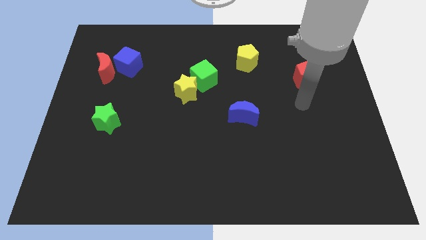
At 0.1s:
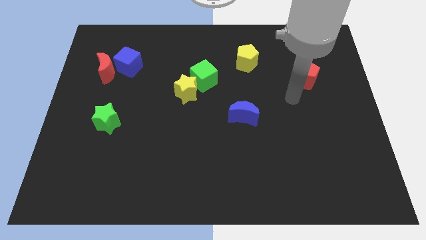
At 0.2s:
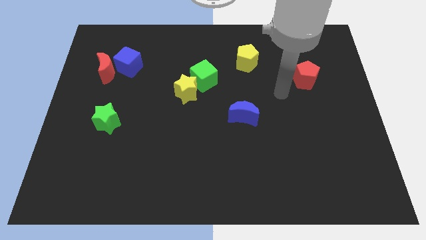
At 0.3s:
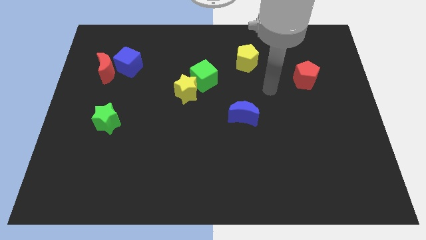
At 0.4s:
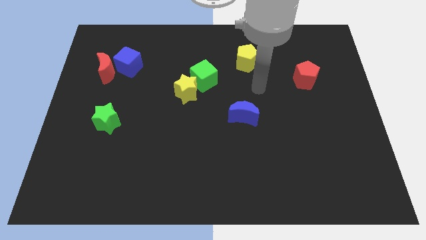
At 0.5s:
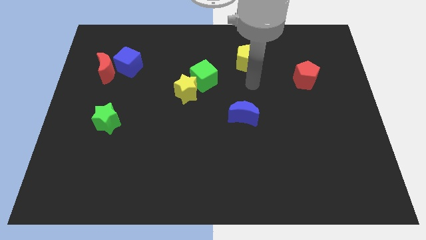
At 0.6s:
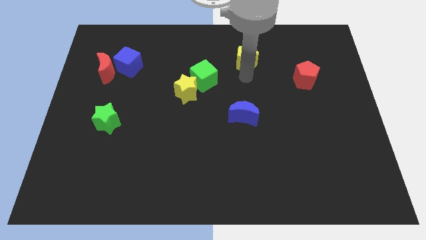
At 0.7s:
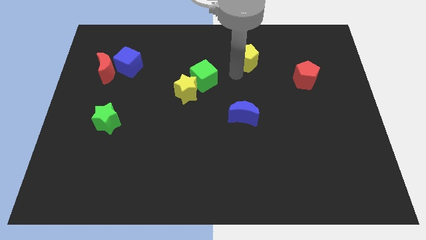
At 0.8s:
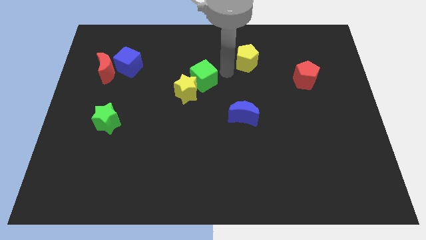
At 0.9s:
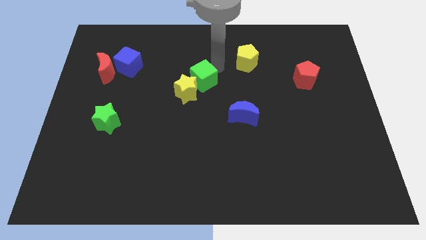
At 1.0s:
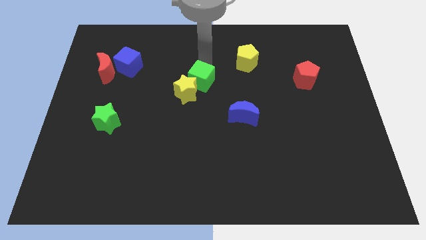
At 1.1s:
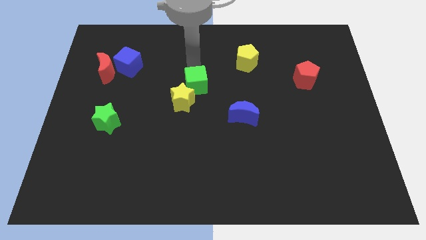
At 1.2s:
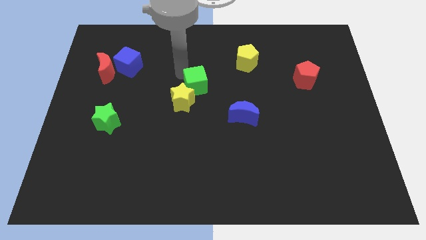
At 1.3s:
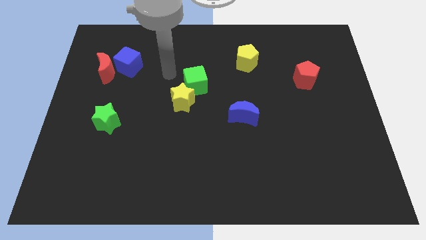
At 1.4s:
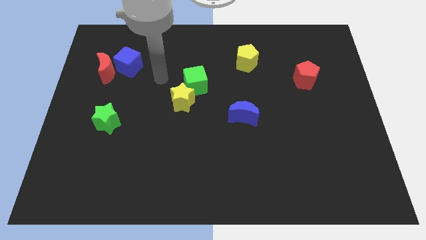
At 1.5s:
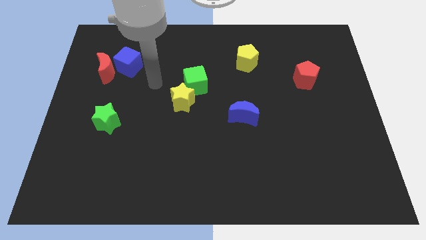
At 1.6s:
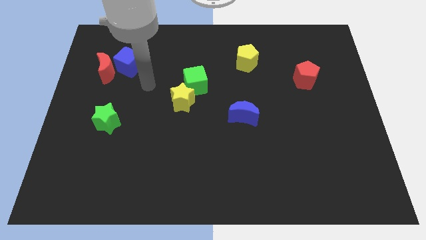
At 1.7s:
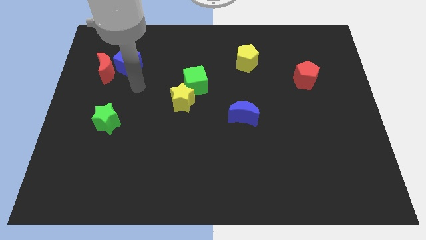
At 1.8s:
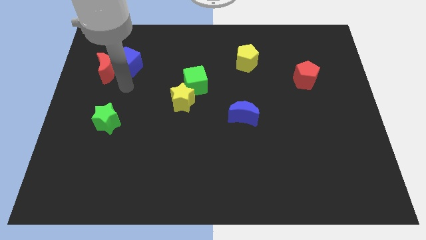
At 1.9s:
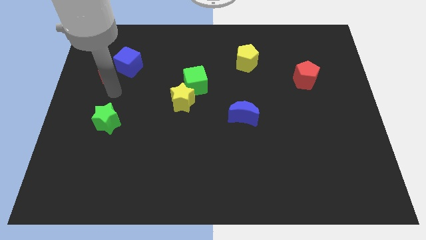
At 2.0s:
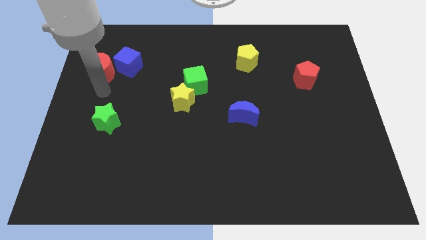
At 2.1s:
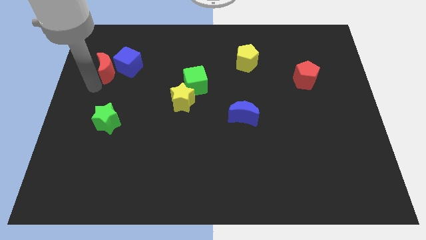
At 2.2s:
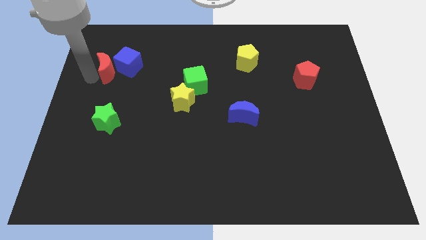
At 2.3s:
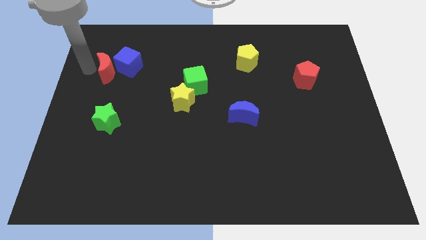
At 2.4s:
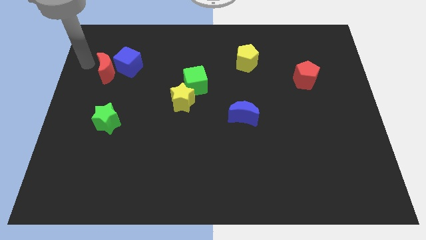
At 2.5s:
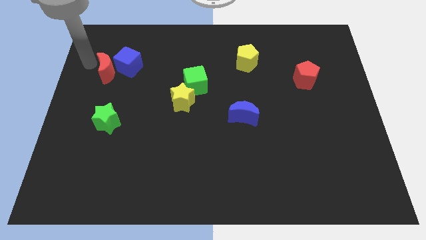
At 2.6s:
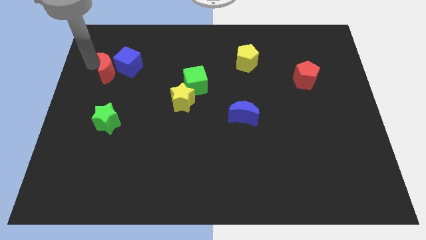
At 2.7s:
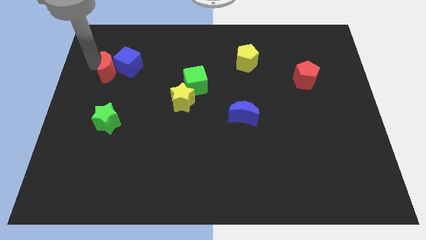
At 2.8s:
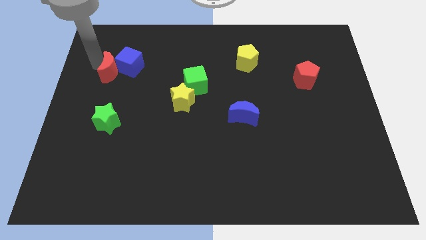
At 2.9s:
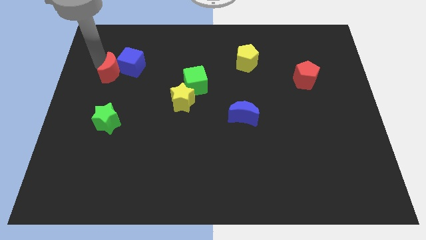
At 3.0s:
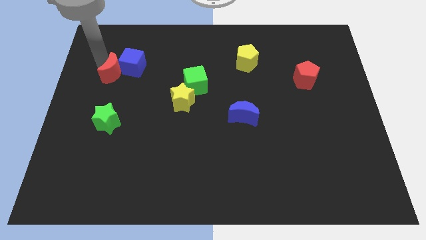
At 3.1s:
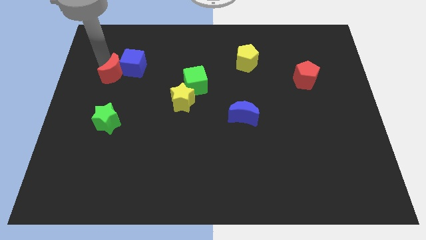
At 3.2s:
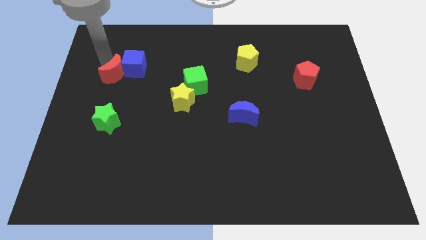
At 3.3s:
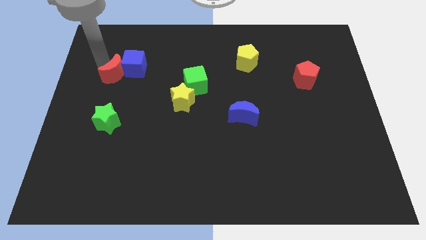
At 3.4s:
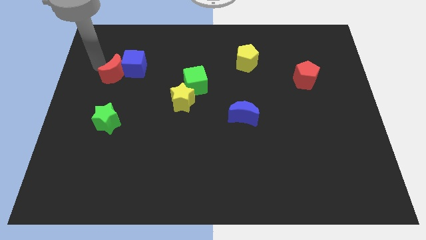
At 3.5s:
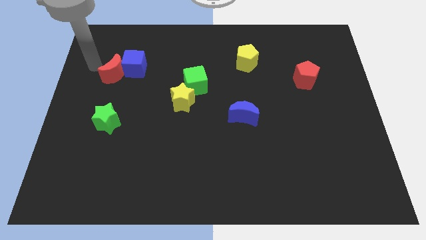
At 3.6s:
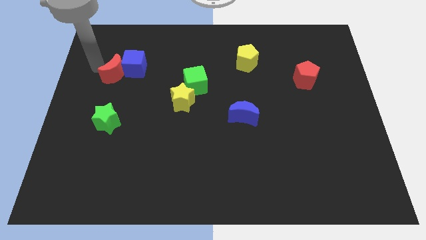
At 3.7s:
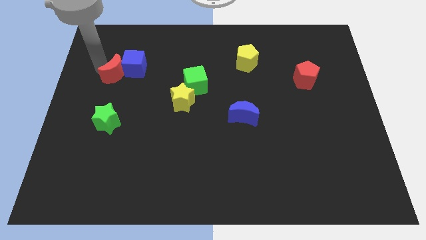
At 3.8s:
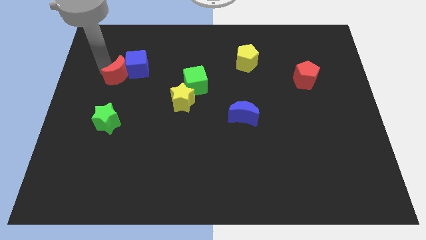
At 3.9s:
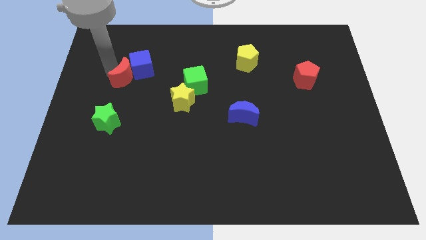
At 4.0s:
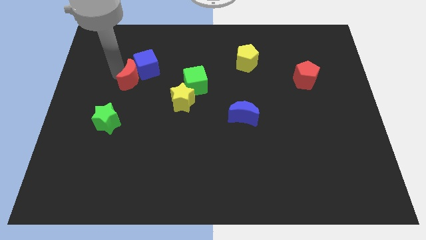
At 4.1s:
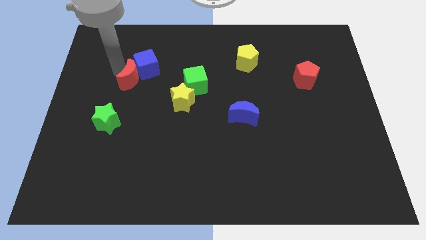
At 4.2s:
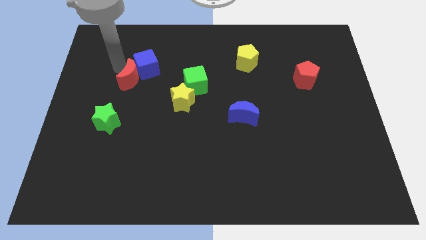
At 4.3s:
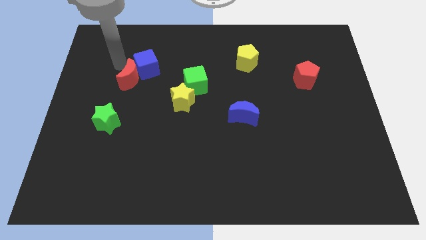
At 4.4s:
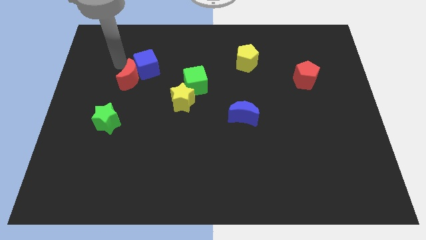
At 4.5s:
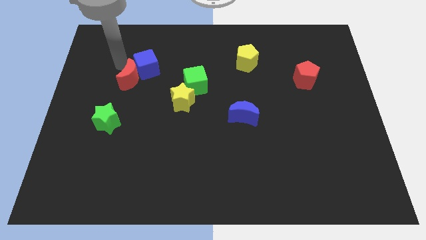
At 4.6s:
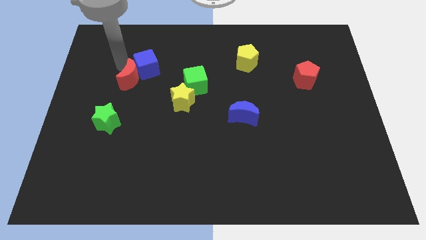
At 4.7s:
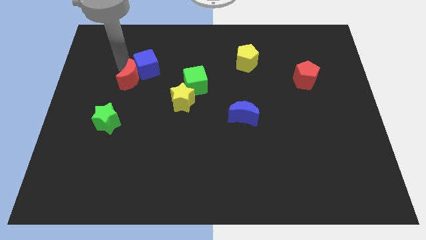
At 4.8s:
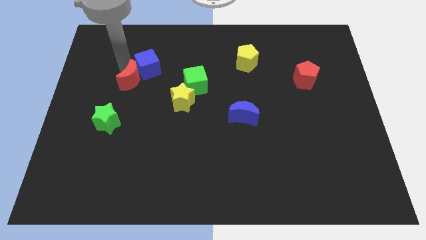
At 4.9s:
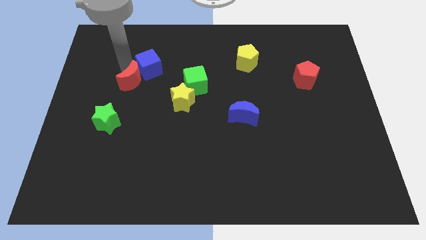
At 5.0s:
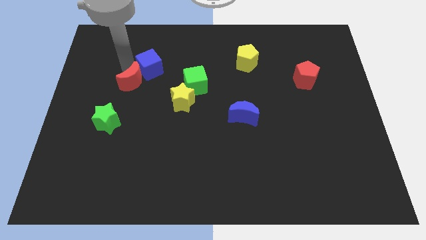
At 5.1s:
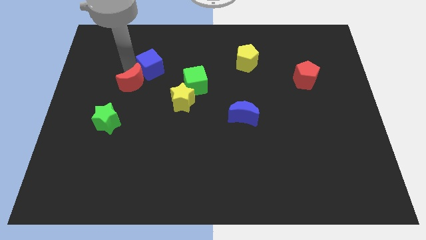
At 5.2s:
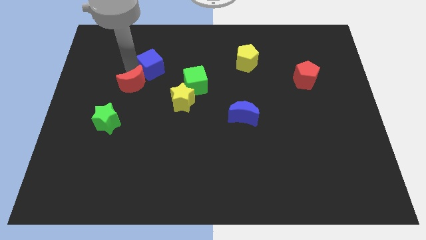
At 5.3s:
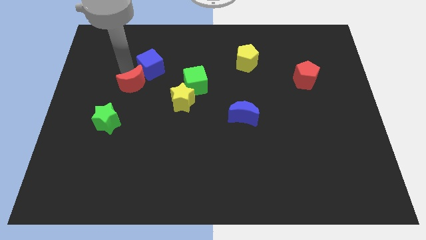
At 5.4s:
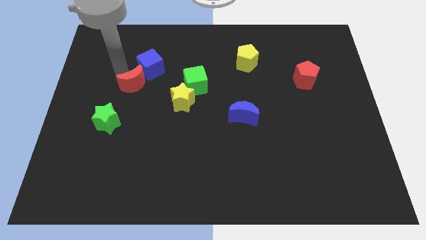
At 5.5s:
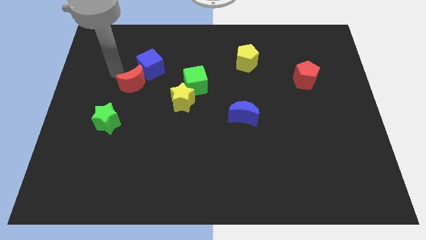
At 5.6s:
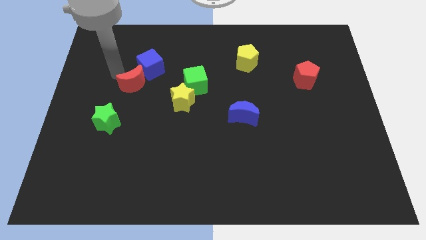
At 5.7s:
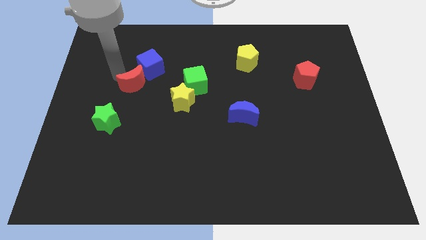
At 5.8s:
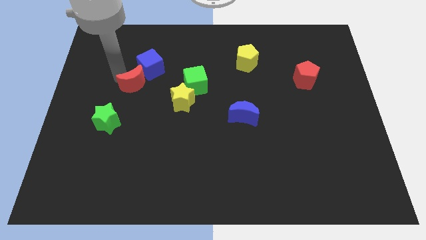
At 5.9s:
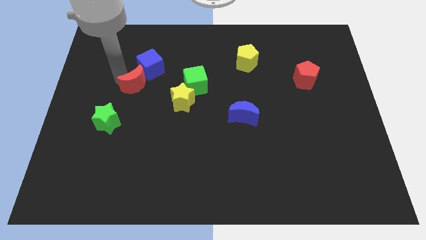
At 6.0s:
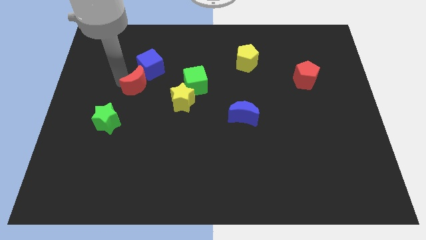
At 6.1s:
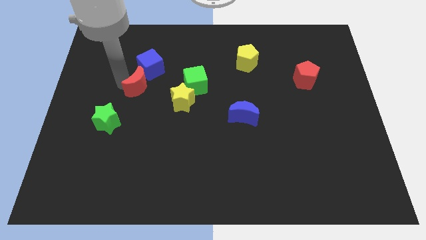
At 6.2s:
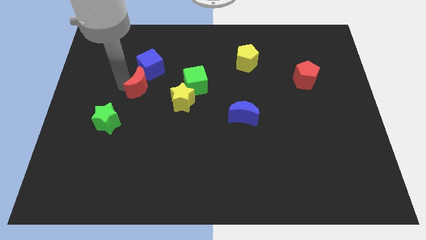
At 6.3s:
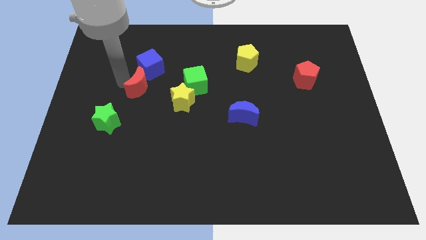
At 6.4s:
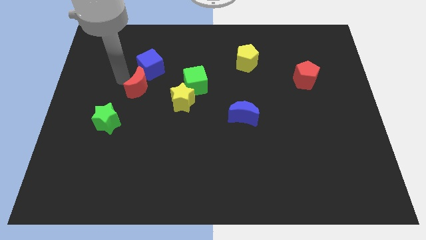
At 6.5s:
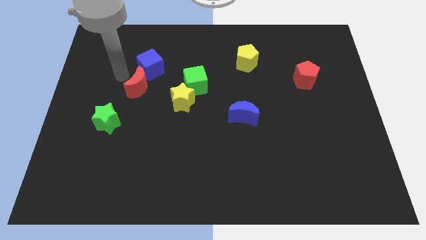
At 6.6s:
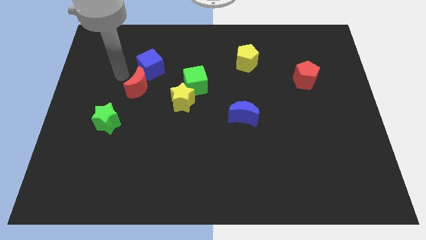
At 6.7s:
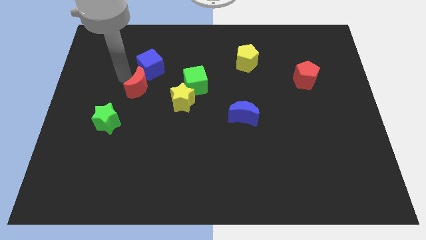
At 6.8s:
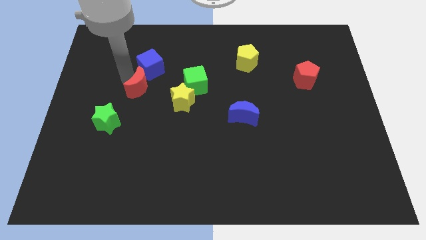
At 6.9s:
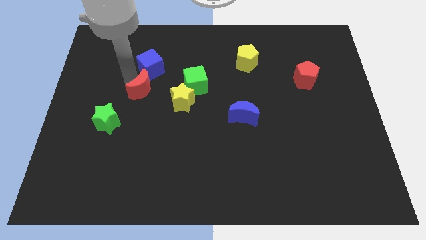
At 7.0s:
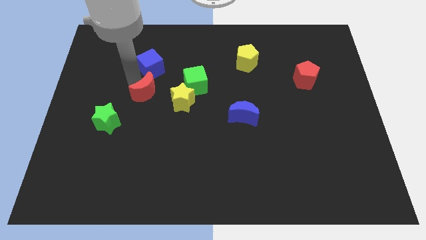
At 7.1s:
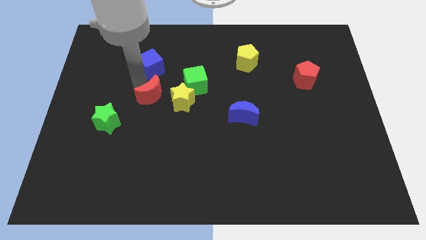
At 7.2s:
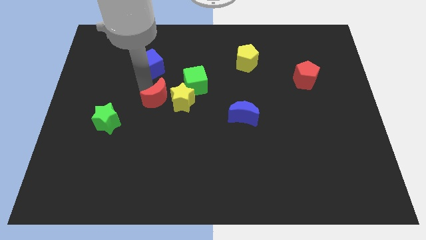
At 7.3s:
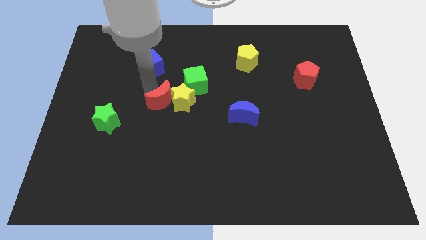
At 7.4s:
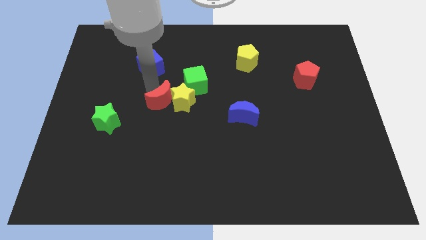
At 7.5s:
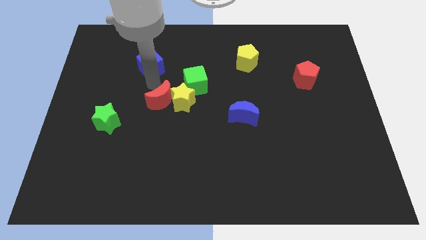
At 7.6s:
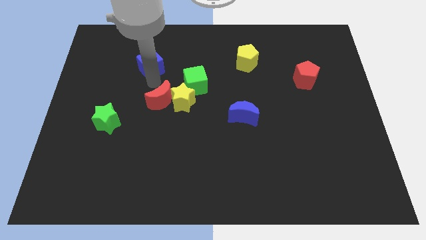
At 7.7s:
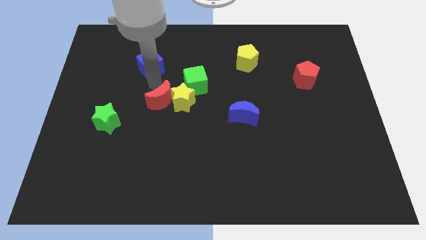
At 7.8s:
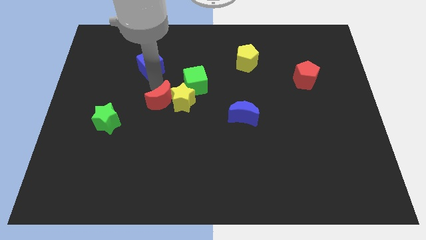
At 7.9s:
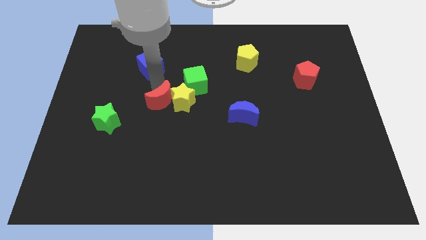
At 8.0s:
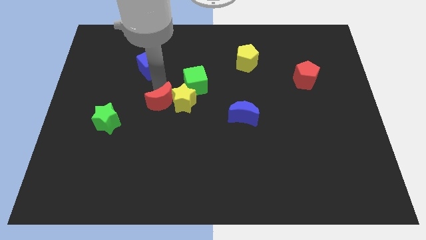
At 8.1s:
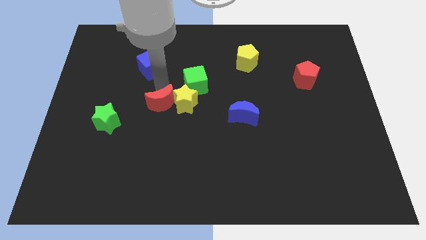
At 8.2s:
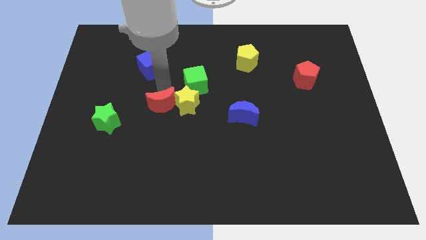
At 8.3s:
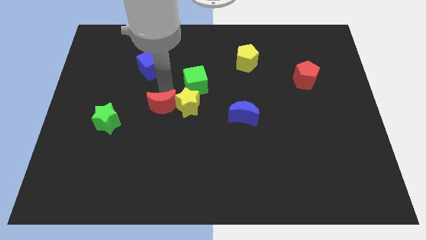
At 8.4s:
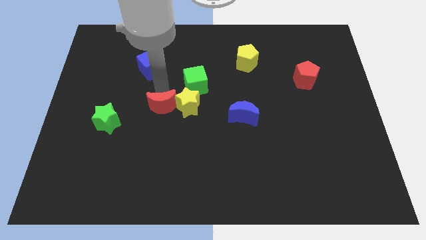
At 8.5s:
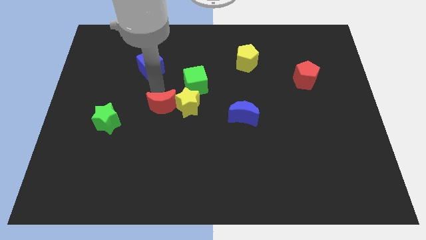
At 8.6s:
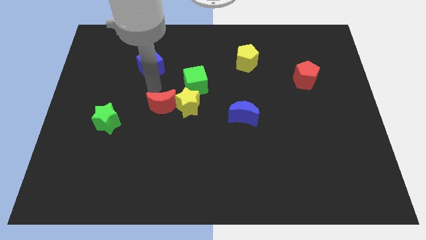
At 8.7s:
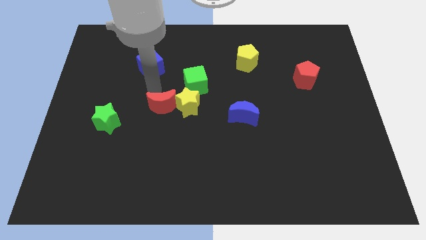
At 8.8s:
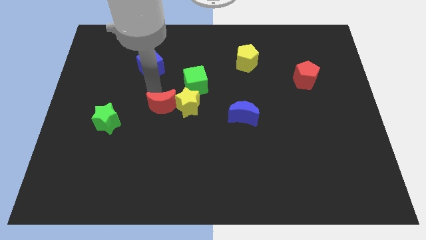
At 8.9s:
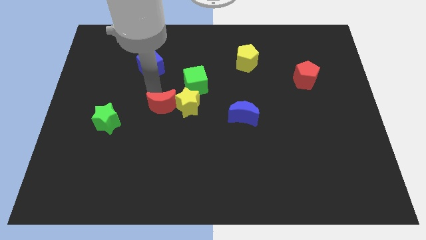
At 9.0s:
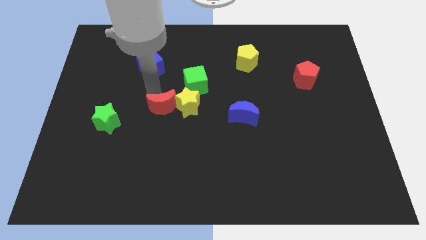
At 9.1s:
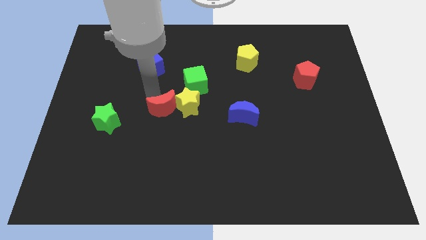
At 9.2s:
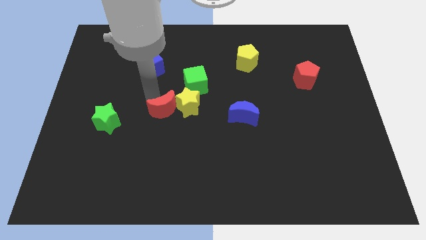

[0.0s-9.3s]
slide the red moon down and to the right diagonally
